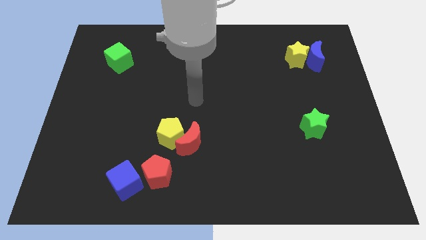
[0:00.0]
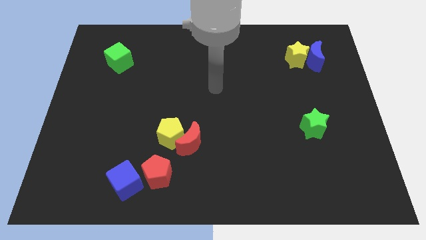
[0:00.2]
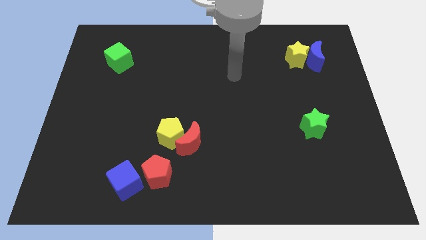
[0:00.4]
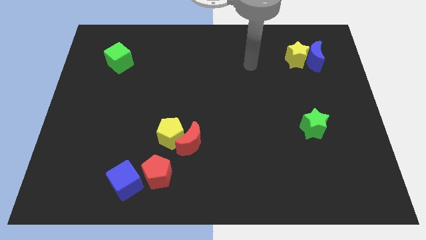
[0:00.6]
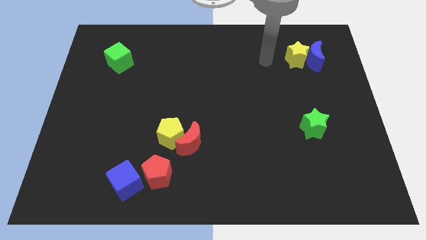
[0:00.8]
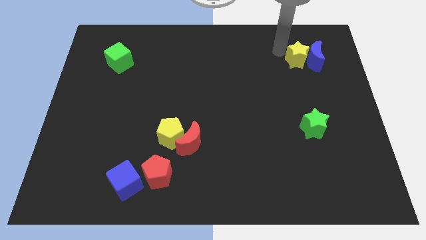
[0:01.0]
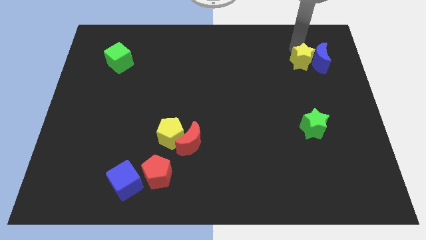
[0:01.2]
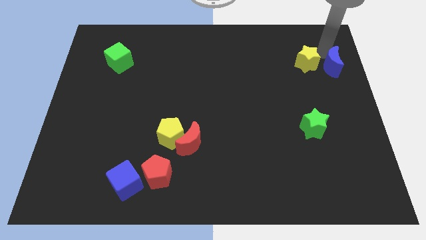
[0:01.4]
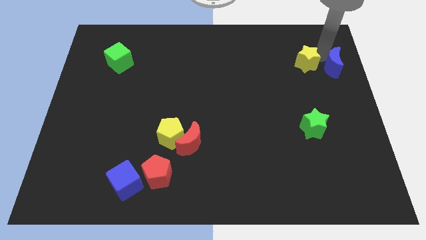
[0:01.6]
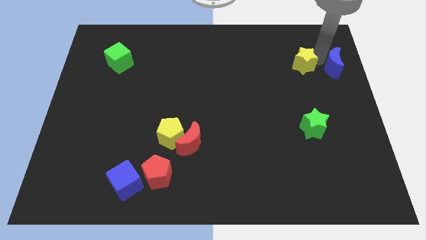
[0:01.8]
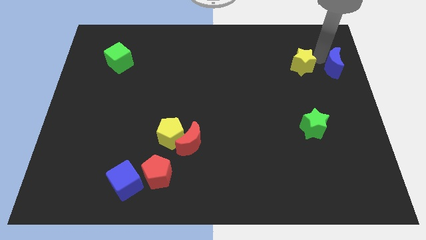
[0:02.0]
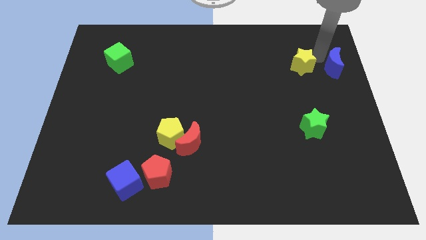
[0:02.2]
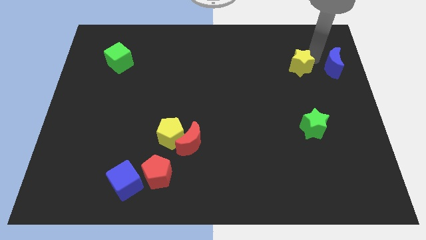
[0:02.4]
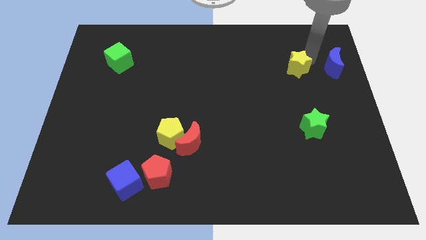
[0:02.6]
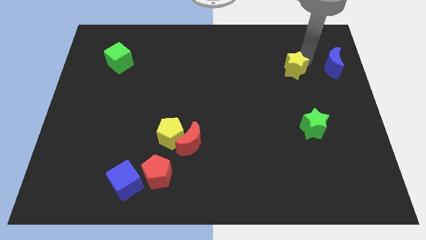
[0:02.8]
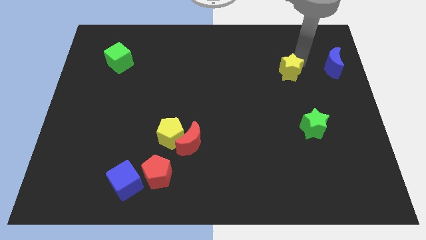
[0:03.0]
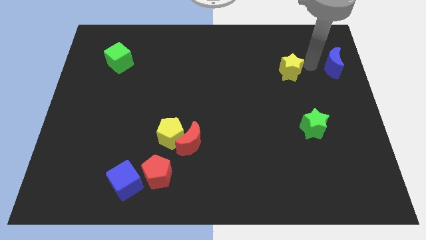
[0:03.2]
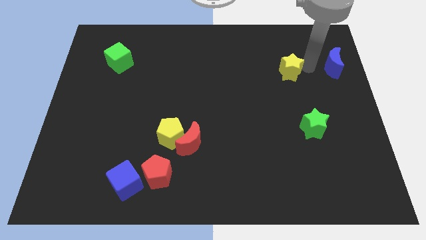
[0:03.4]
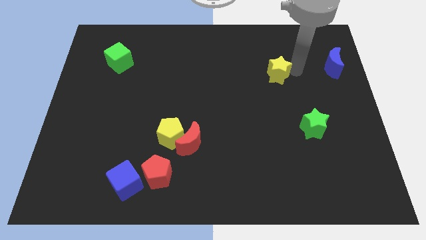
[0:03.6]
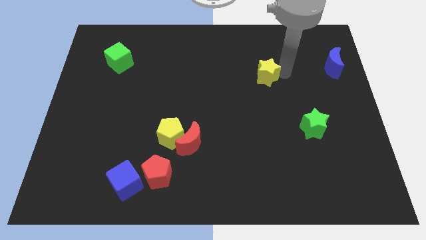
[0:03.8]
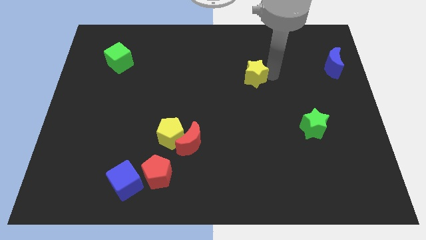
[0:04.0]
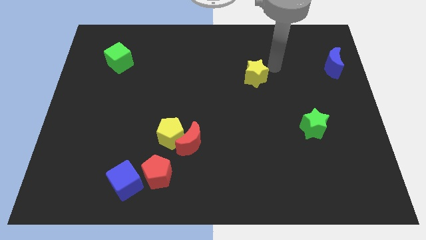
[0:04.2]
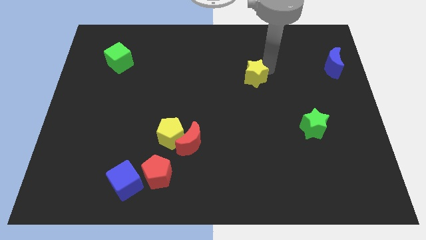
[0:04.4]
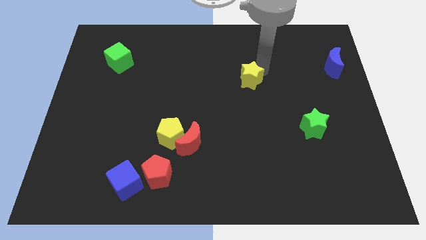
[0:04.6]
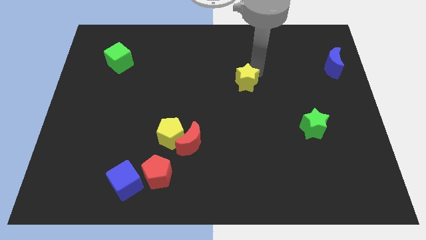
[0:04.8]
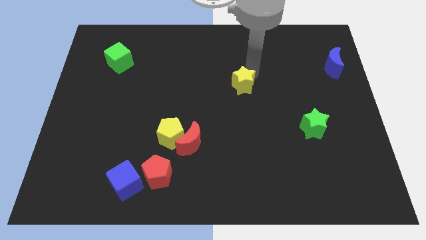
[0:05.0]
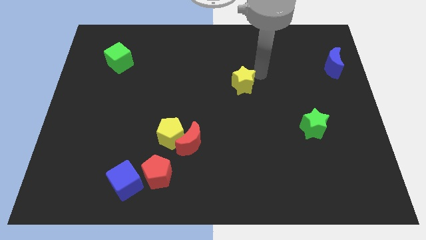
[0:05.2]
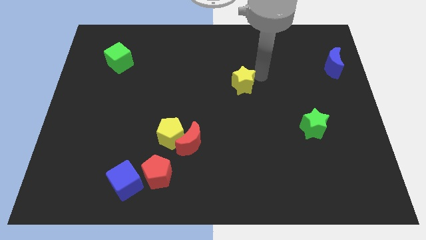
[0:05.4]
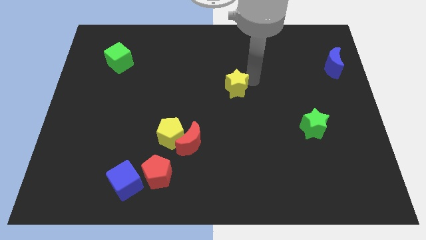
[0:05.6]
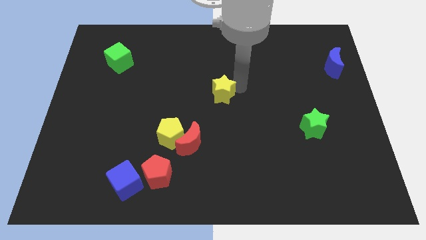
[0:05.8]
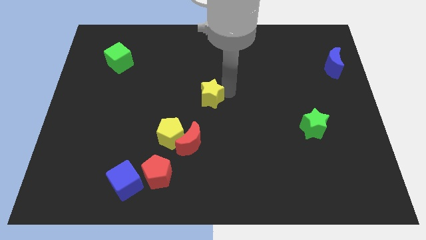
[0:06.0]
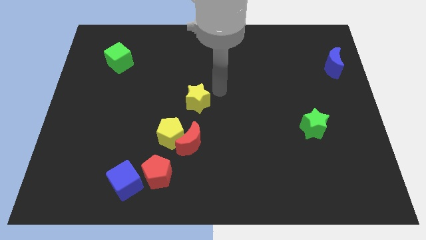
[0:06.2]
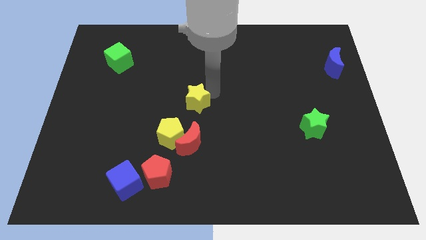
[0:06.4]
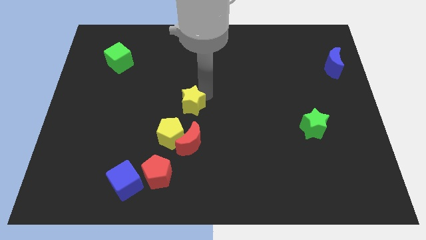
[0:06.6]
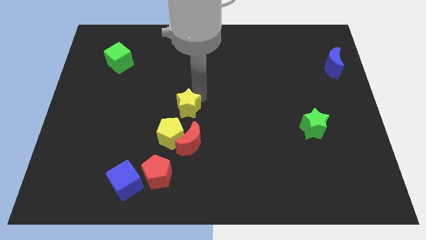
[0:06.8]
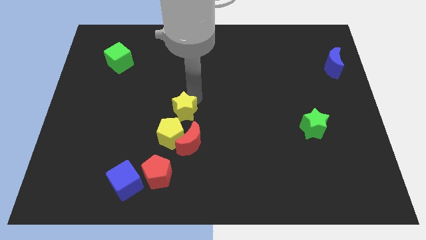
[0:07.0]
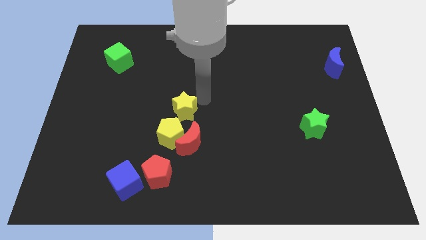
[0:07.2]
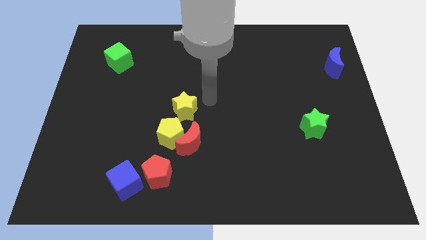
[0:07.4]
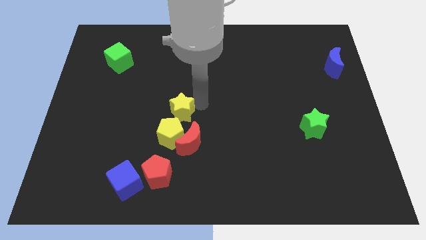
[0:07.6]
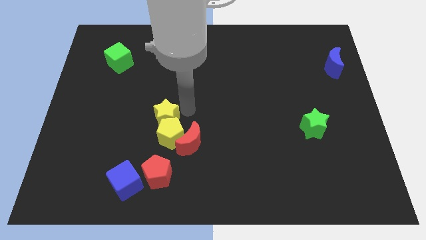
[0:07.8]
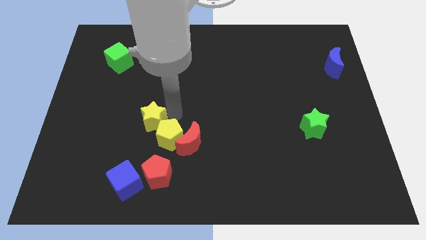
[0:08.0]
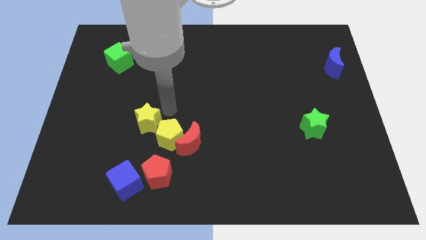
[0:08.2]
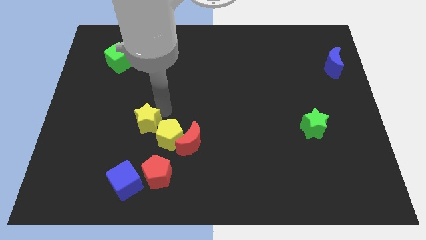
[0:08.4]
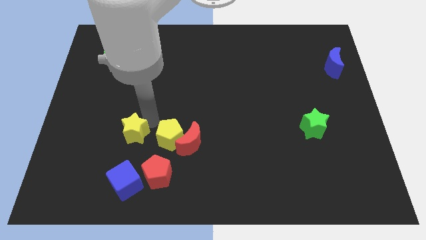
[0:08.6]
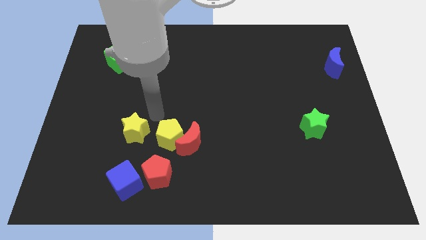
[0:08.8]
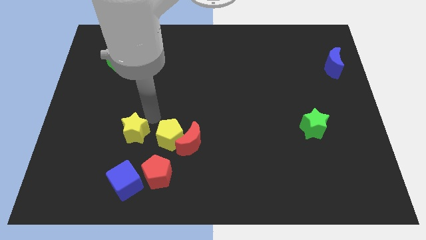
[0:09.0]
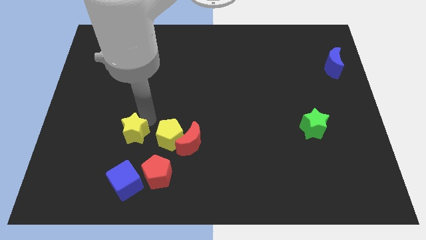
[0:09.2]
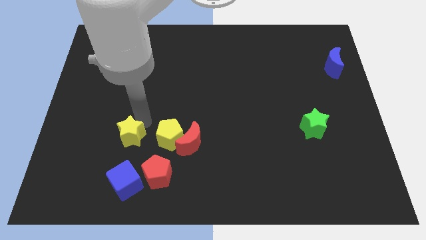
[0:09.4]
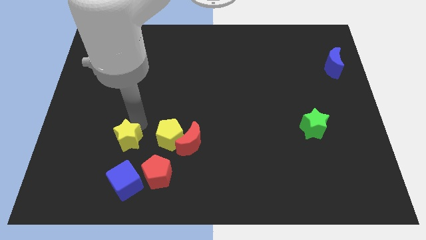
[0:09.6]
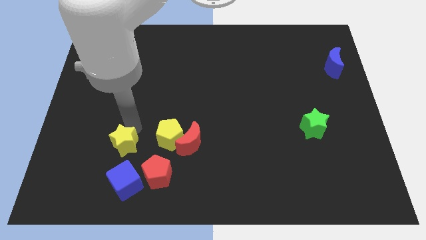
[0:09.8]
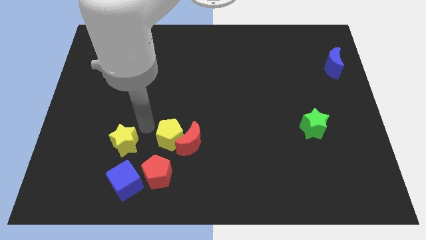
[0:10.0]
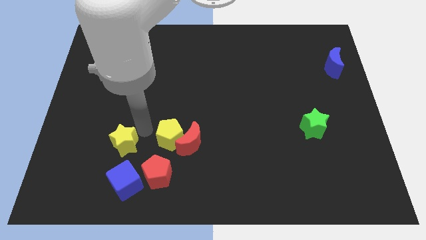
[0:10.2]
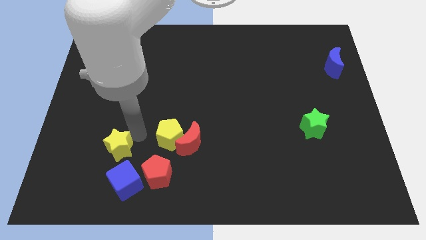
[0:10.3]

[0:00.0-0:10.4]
slide the yellow star to the top left side of the blue cube

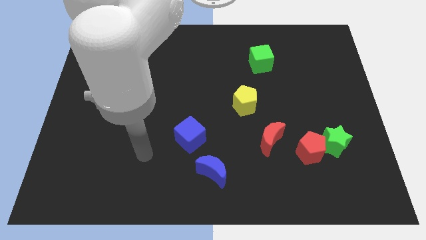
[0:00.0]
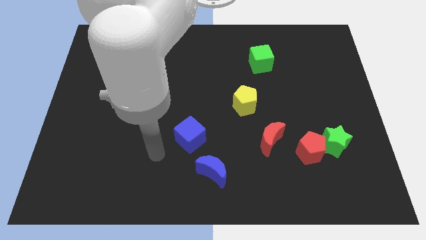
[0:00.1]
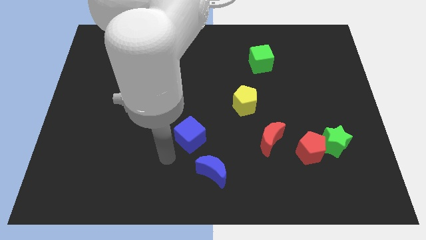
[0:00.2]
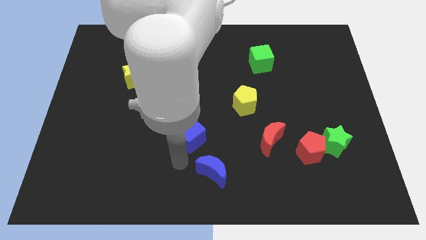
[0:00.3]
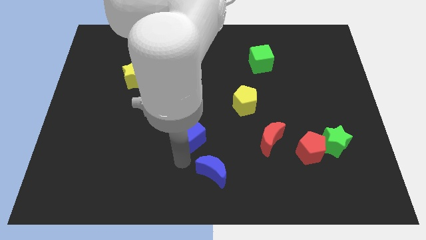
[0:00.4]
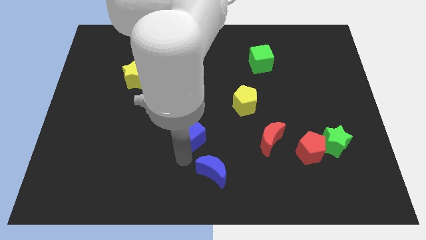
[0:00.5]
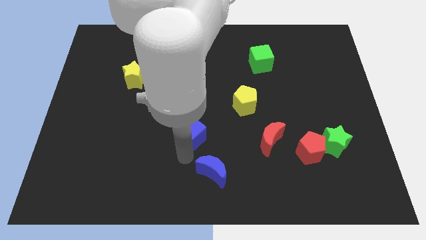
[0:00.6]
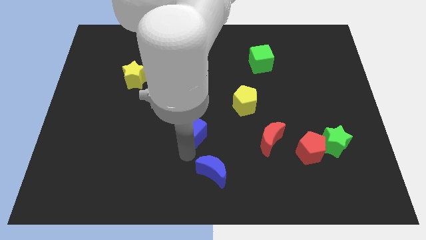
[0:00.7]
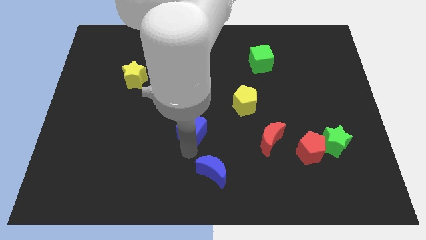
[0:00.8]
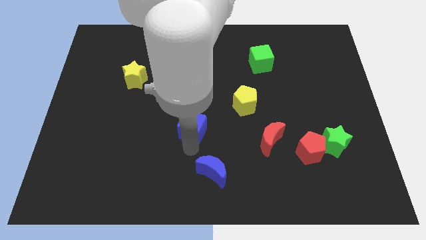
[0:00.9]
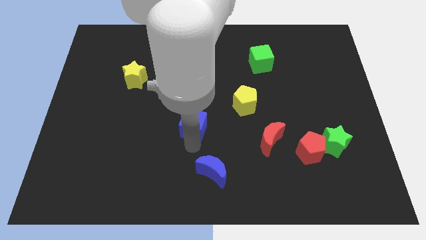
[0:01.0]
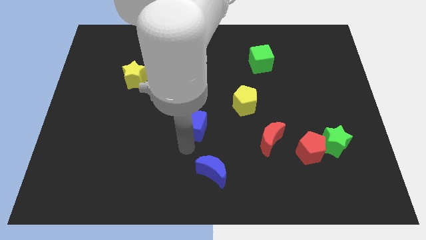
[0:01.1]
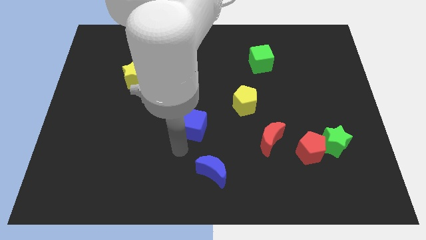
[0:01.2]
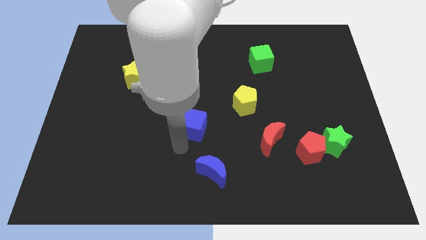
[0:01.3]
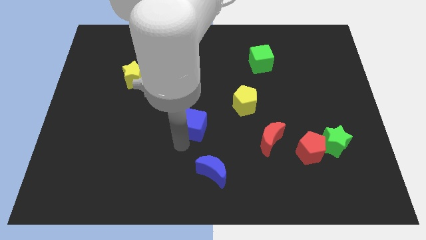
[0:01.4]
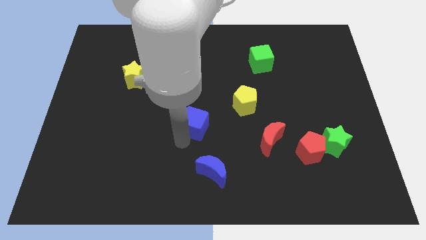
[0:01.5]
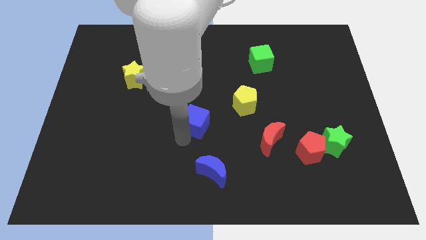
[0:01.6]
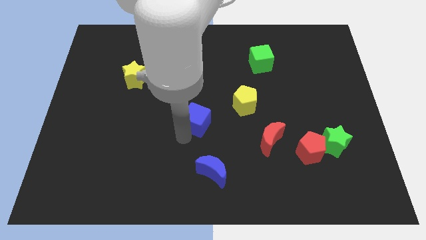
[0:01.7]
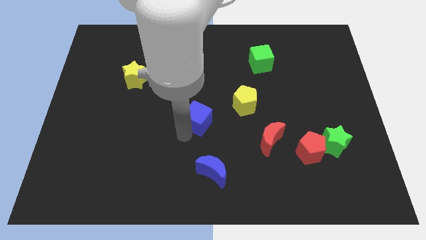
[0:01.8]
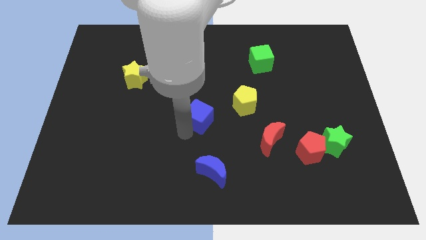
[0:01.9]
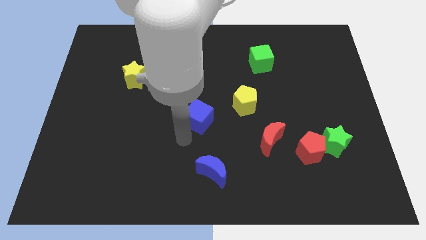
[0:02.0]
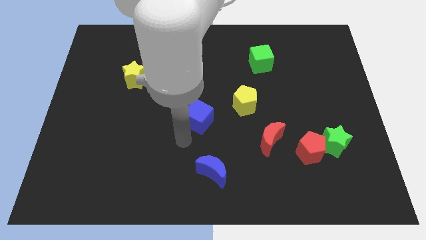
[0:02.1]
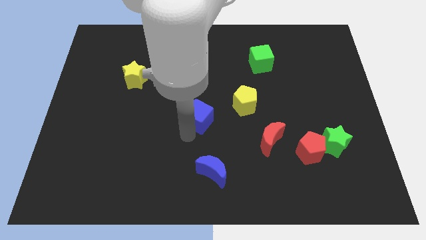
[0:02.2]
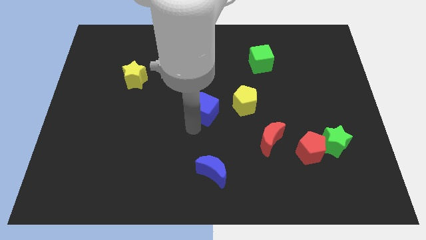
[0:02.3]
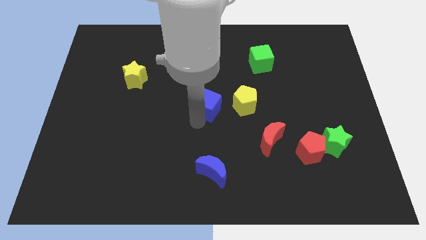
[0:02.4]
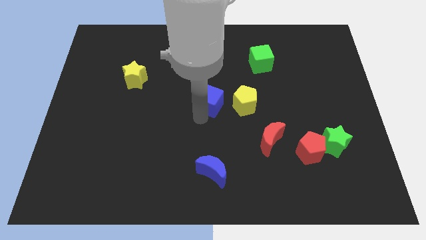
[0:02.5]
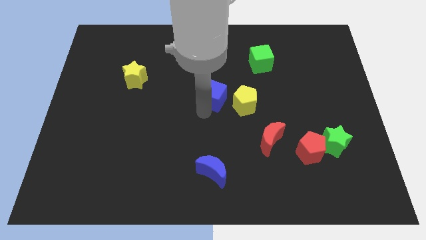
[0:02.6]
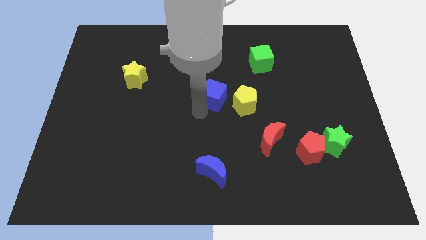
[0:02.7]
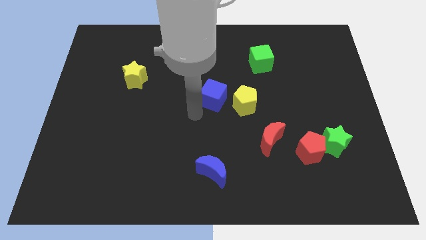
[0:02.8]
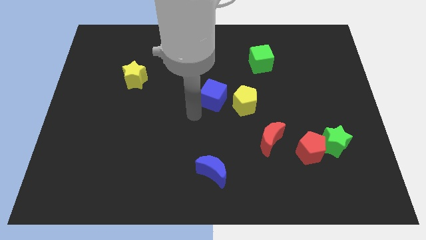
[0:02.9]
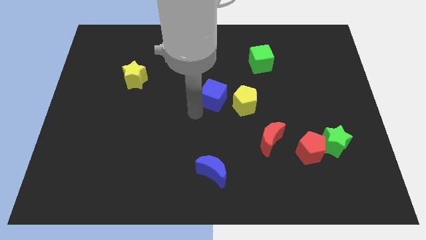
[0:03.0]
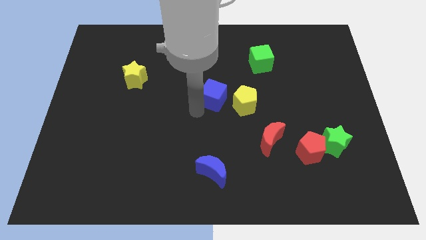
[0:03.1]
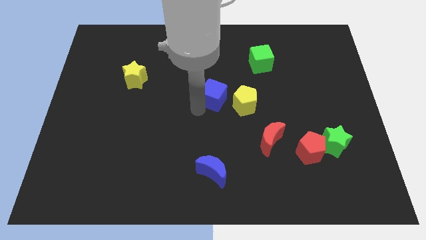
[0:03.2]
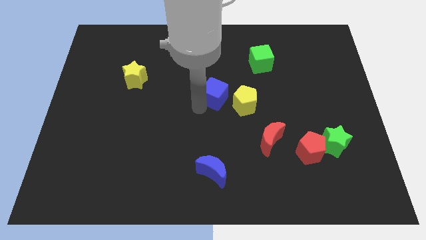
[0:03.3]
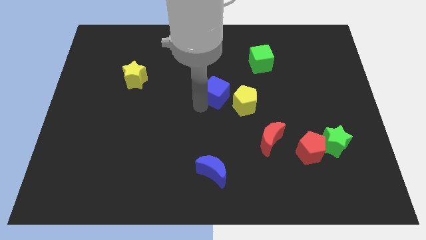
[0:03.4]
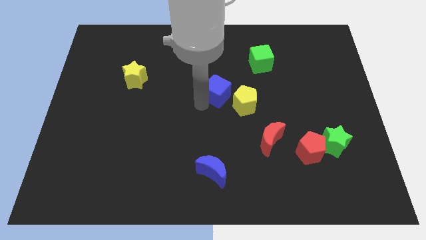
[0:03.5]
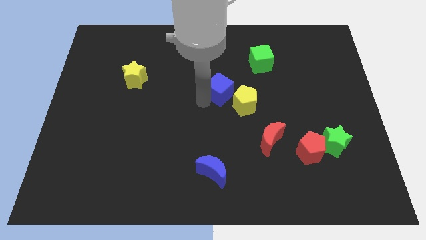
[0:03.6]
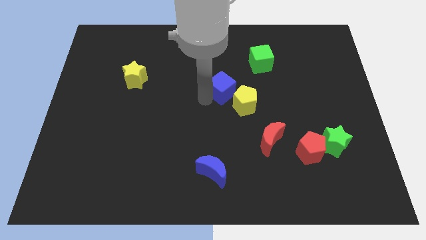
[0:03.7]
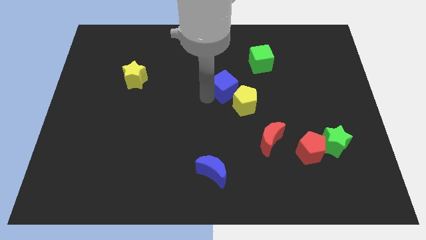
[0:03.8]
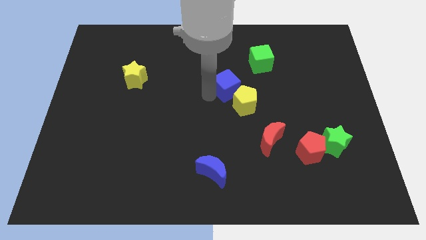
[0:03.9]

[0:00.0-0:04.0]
slide the blue cube to the bottom left side of the green cube
